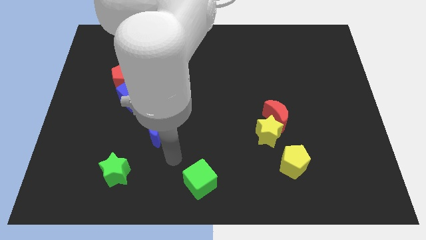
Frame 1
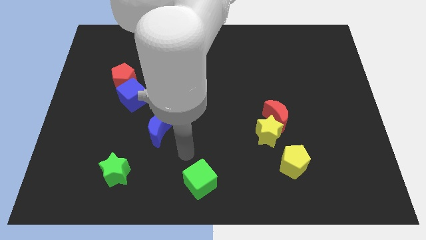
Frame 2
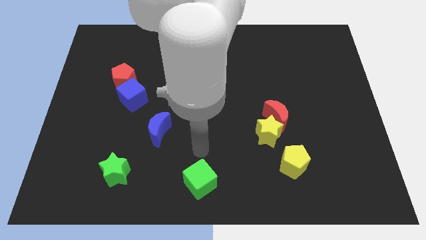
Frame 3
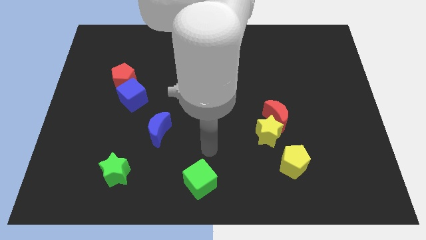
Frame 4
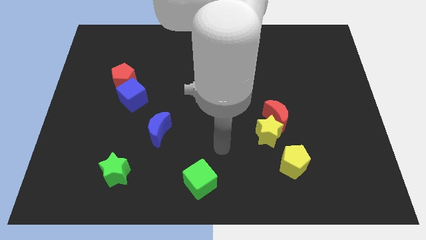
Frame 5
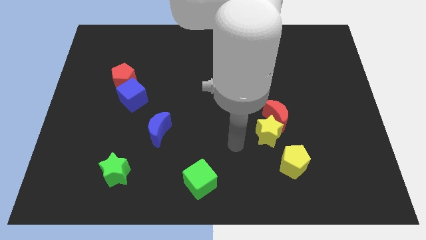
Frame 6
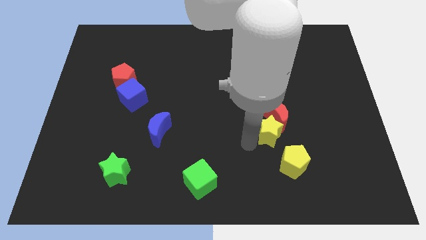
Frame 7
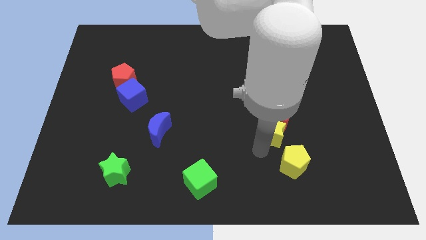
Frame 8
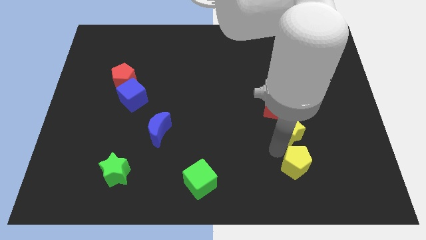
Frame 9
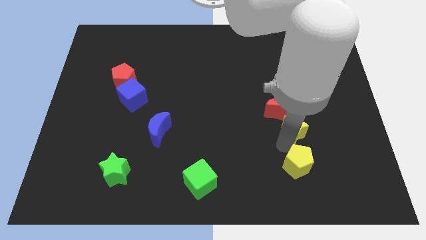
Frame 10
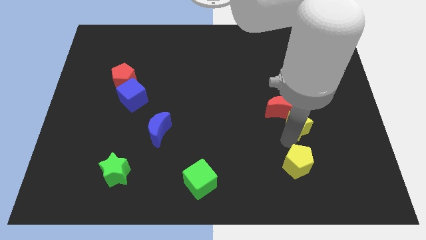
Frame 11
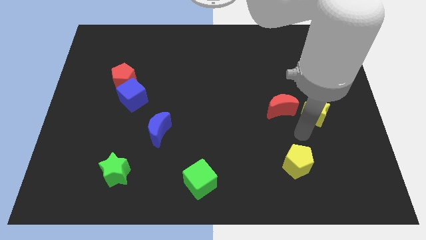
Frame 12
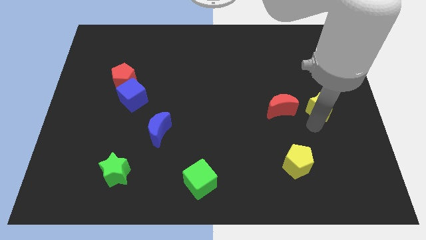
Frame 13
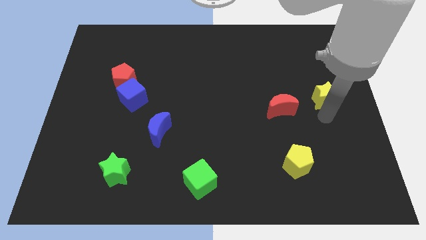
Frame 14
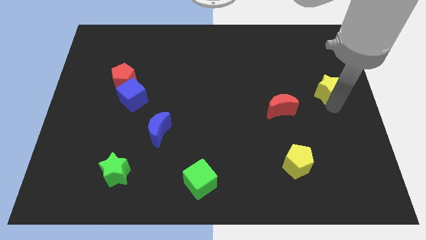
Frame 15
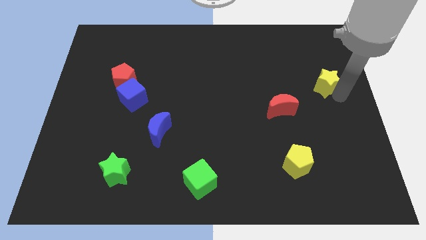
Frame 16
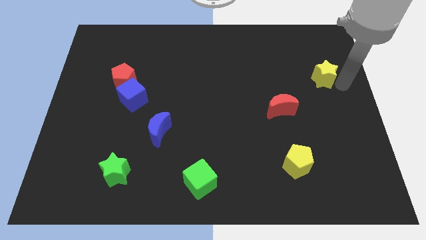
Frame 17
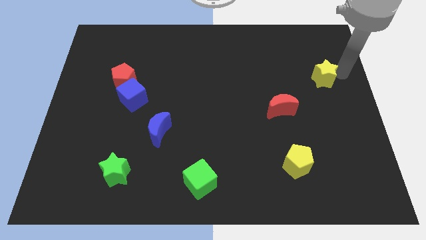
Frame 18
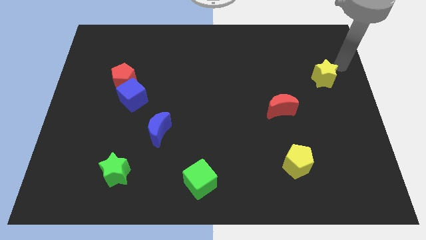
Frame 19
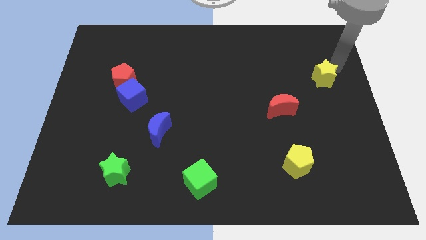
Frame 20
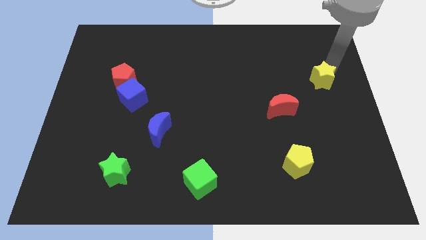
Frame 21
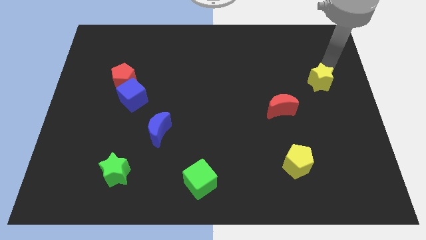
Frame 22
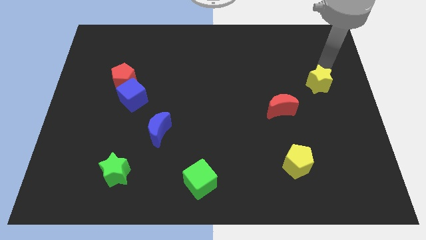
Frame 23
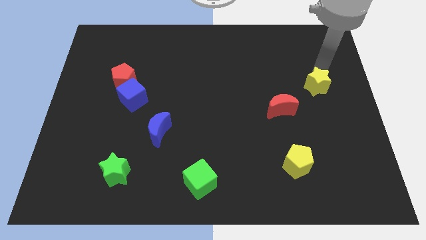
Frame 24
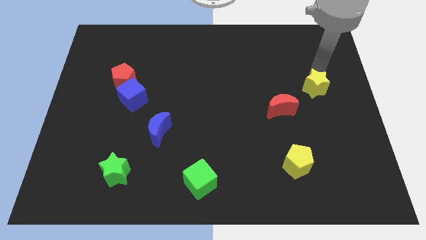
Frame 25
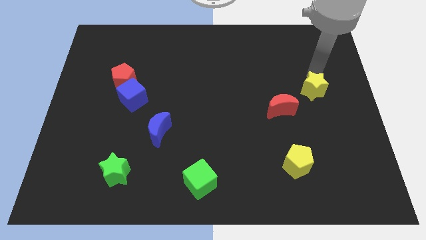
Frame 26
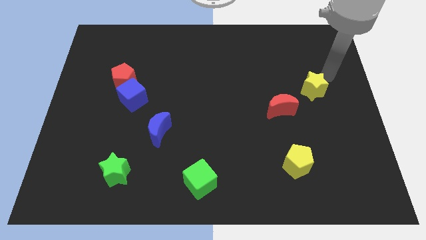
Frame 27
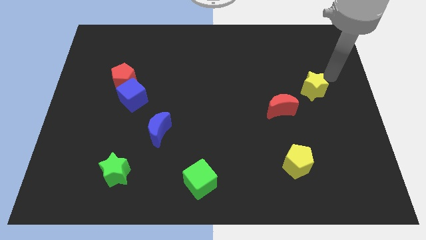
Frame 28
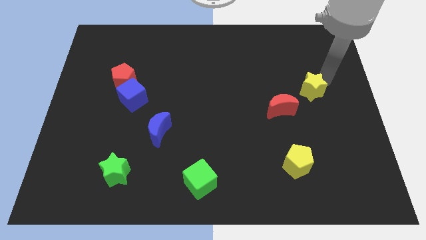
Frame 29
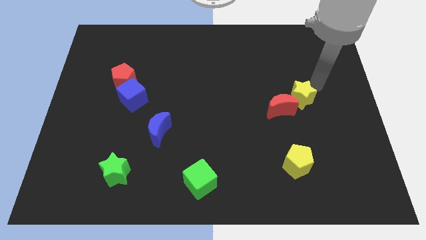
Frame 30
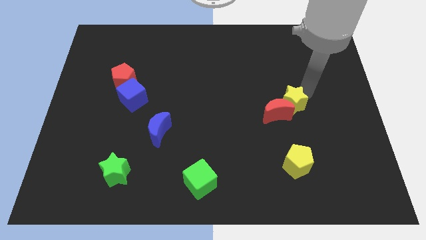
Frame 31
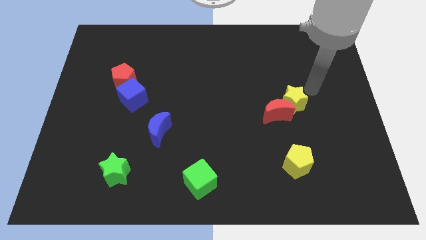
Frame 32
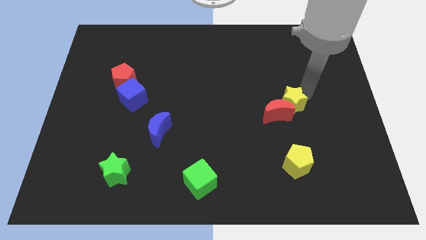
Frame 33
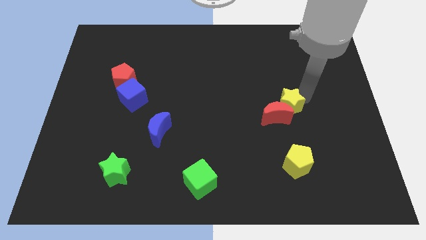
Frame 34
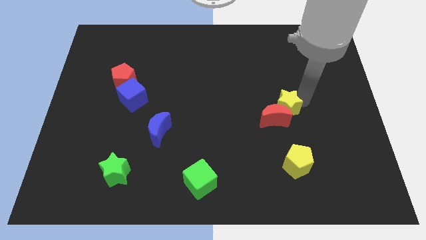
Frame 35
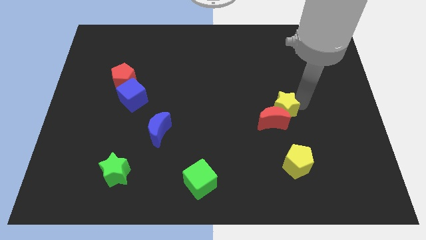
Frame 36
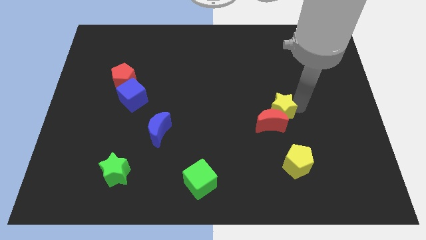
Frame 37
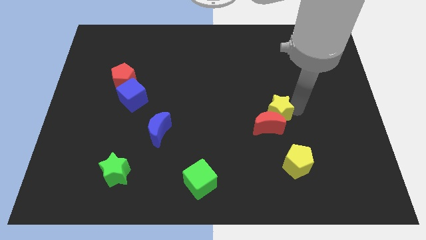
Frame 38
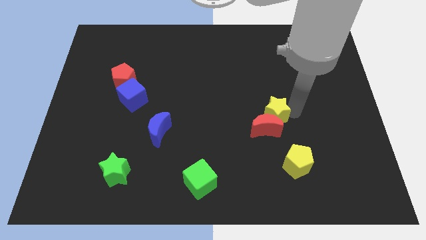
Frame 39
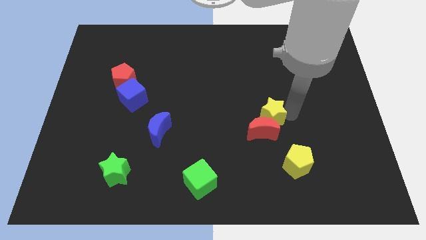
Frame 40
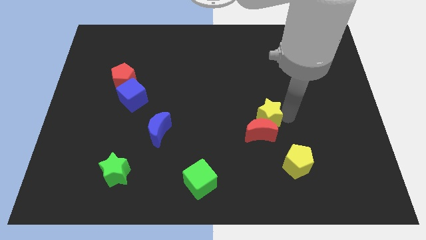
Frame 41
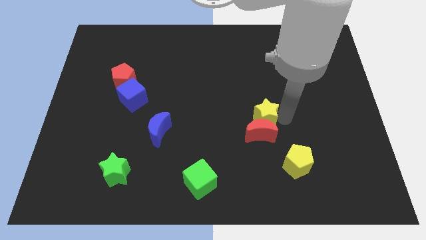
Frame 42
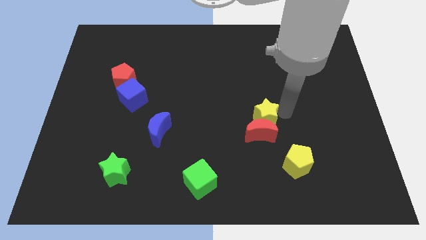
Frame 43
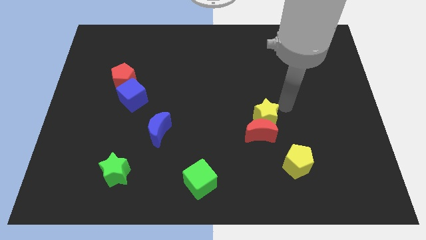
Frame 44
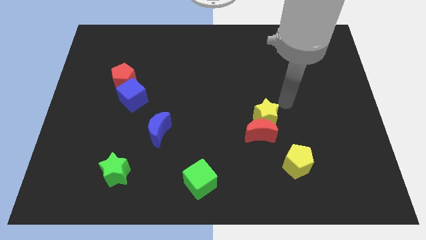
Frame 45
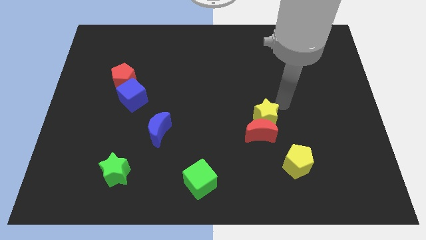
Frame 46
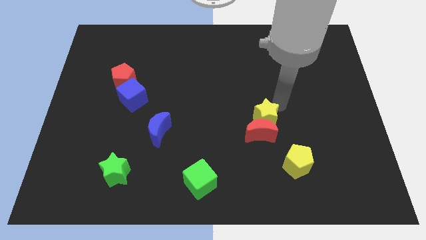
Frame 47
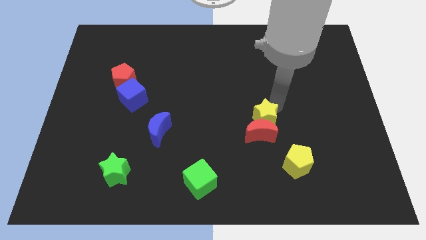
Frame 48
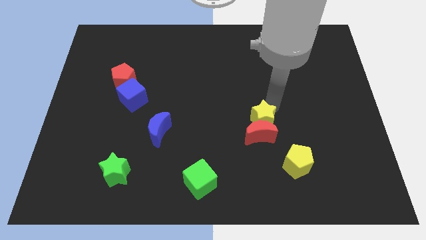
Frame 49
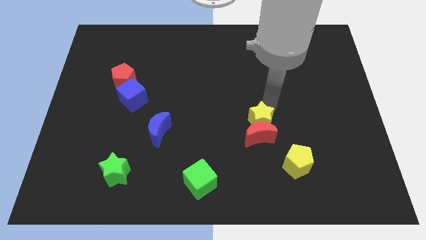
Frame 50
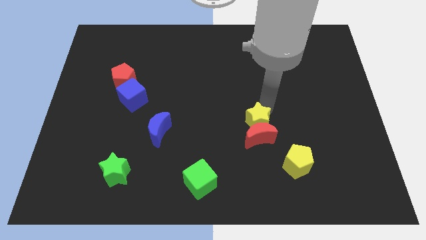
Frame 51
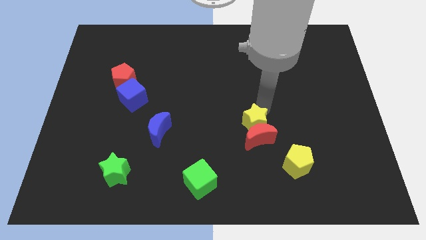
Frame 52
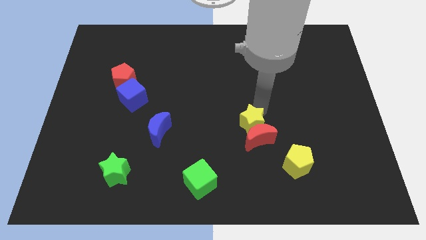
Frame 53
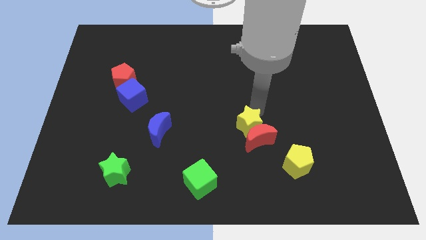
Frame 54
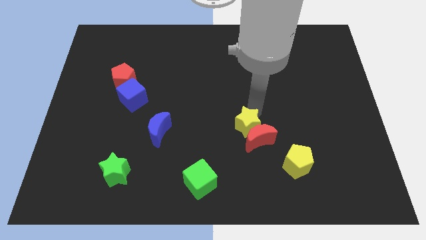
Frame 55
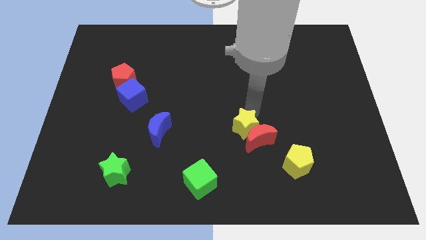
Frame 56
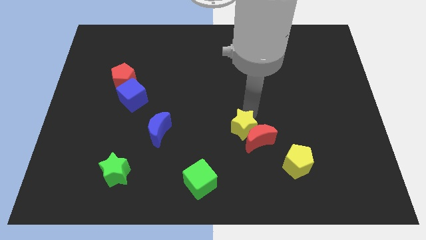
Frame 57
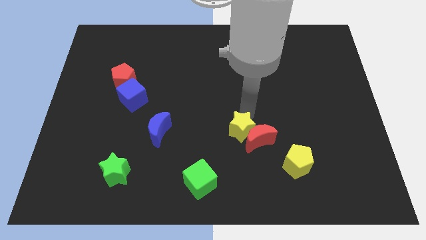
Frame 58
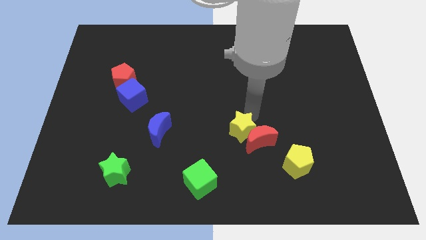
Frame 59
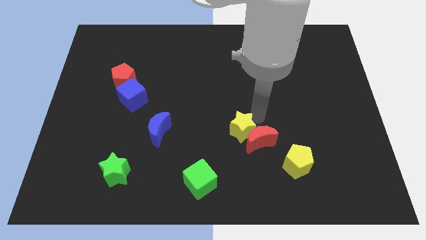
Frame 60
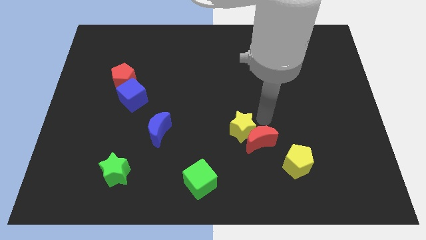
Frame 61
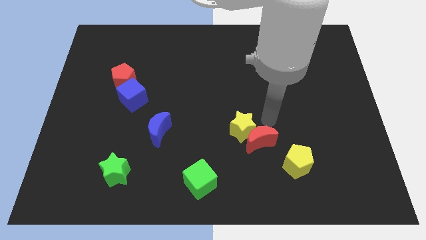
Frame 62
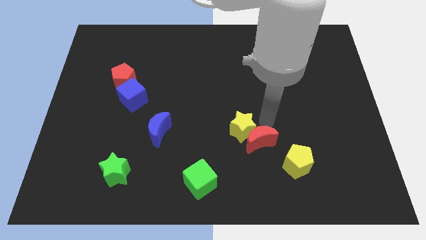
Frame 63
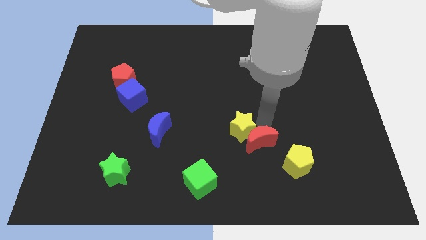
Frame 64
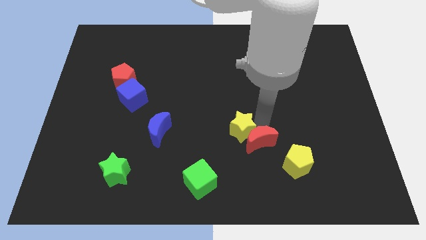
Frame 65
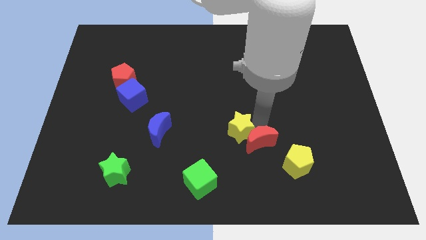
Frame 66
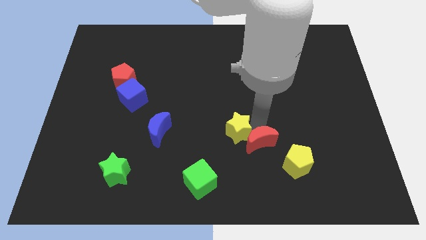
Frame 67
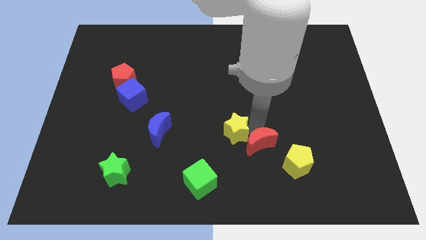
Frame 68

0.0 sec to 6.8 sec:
slide the yellow star a little left

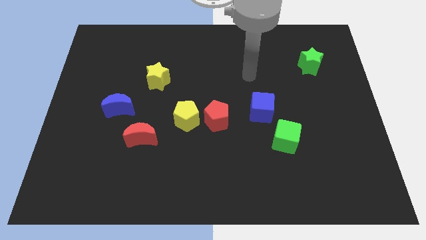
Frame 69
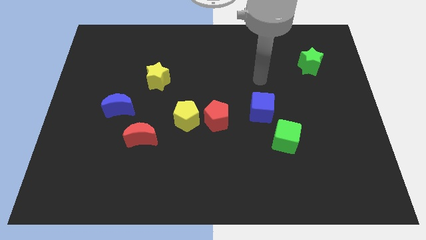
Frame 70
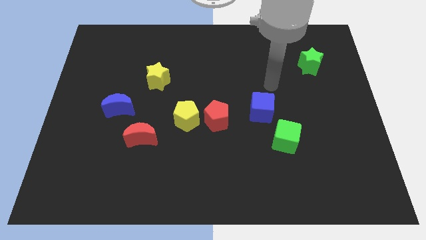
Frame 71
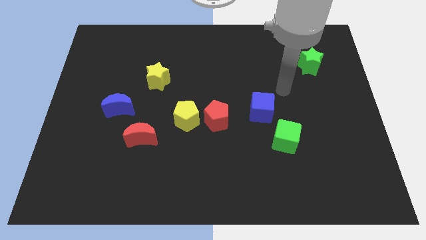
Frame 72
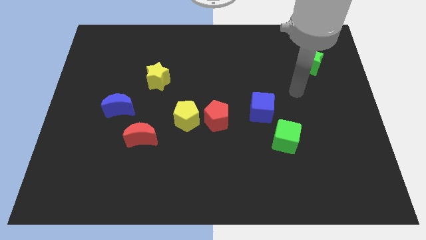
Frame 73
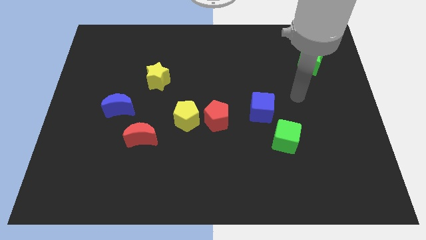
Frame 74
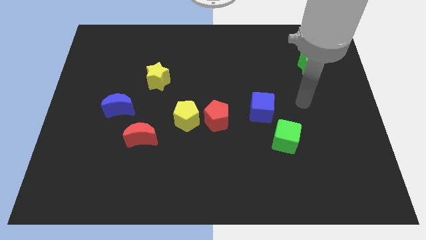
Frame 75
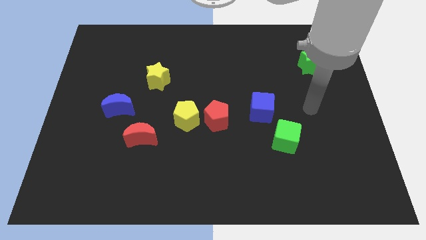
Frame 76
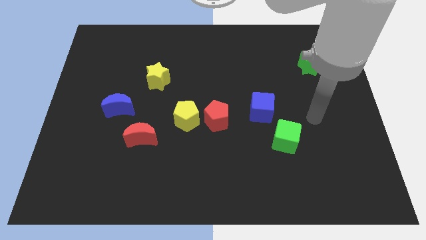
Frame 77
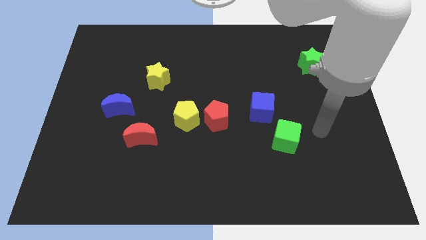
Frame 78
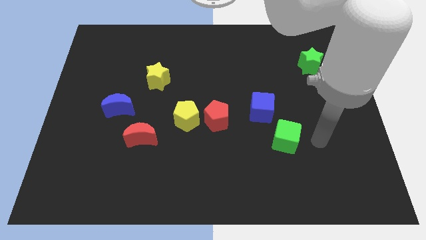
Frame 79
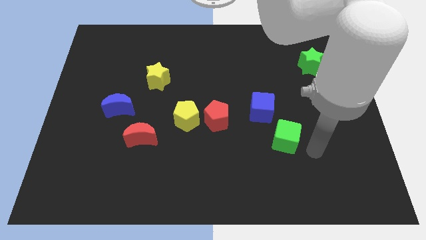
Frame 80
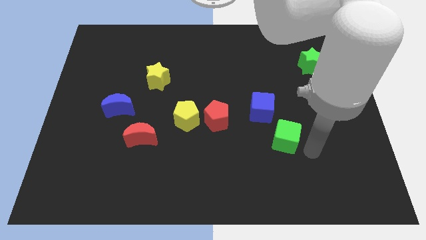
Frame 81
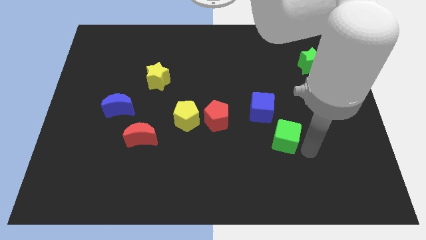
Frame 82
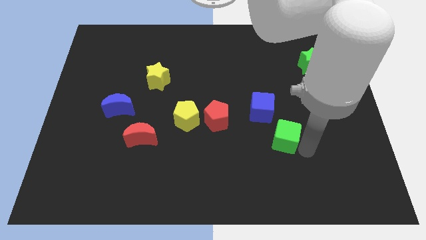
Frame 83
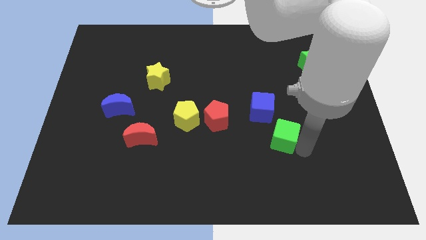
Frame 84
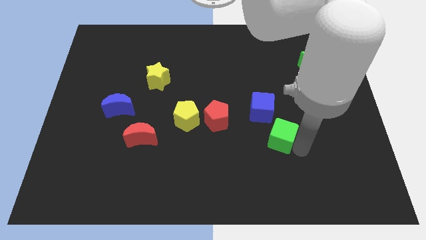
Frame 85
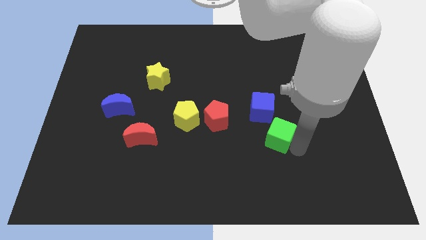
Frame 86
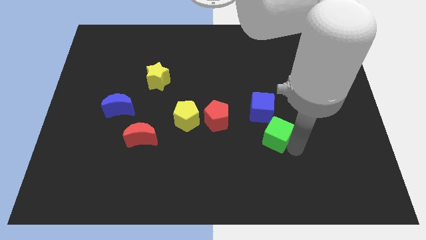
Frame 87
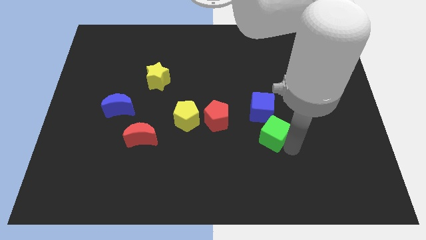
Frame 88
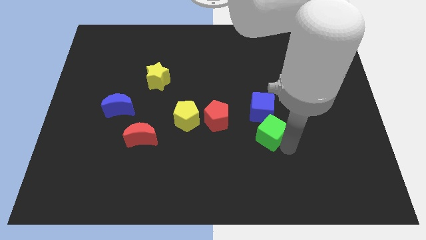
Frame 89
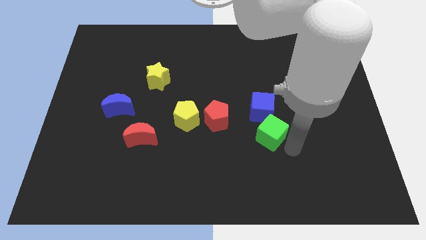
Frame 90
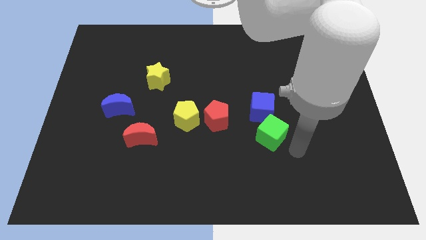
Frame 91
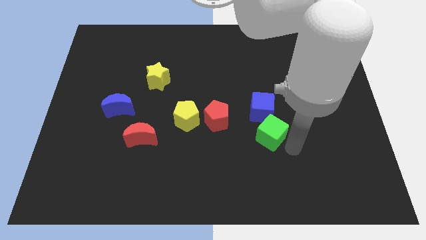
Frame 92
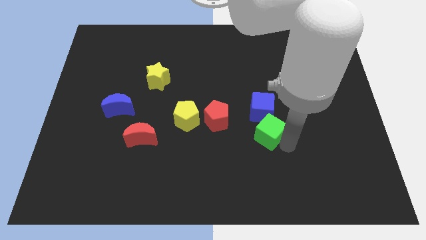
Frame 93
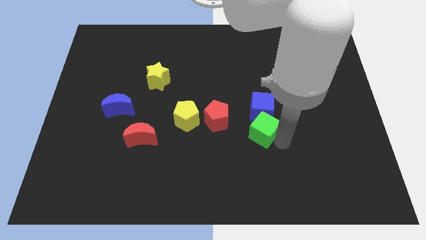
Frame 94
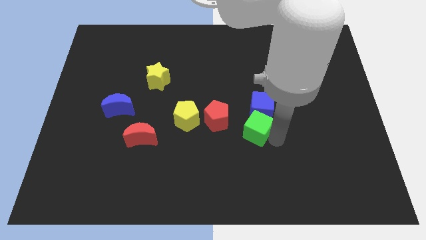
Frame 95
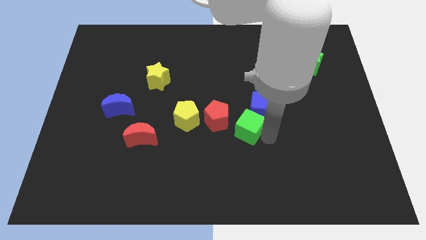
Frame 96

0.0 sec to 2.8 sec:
push the green cube a little up and left
